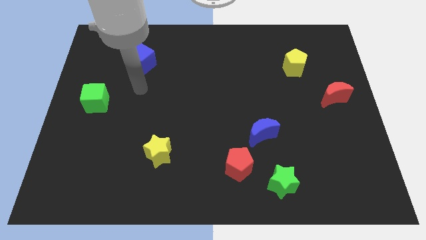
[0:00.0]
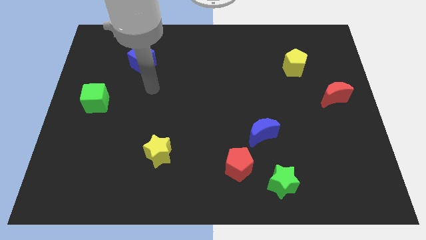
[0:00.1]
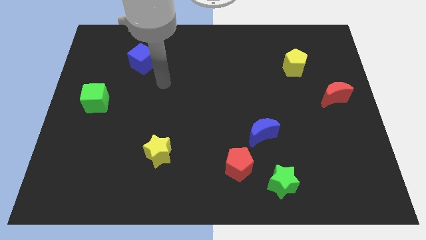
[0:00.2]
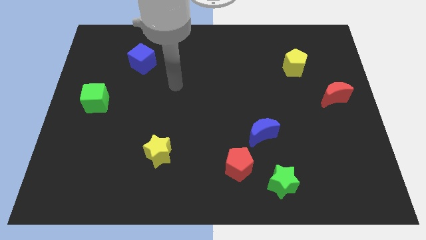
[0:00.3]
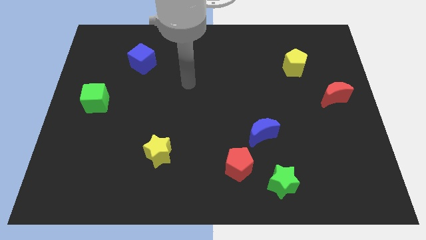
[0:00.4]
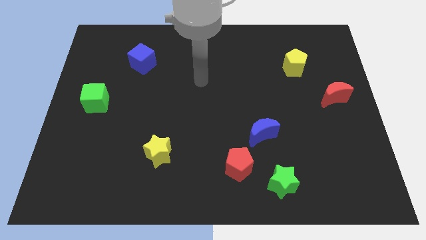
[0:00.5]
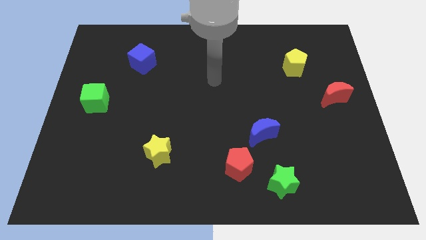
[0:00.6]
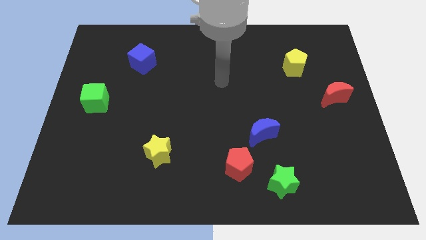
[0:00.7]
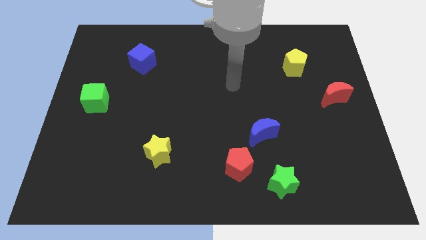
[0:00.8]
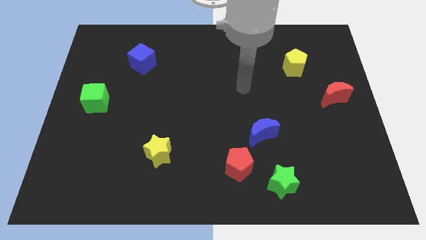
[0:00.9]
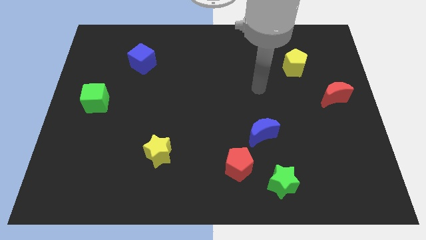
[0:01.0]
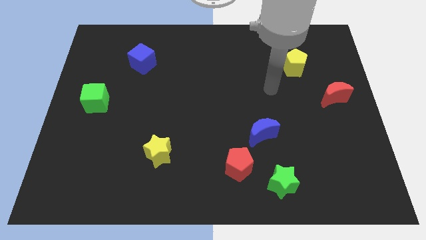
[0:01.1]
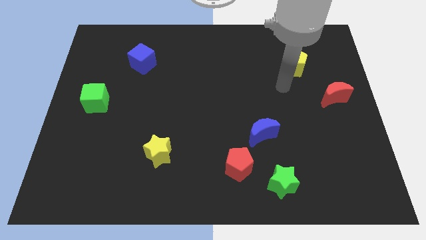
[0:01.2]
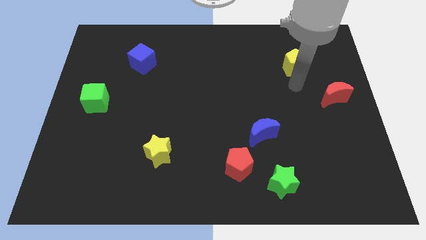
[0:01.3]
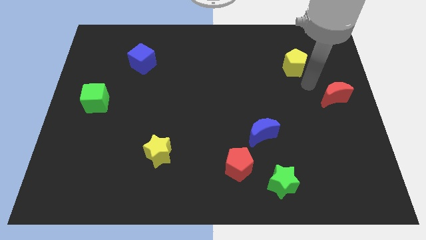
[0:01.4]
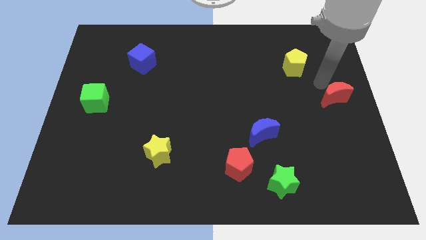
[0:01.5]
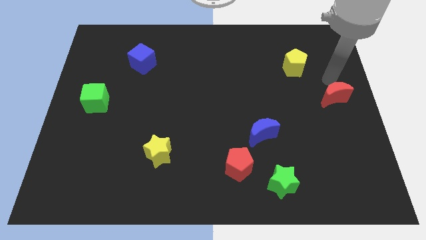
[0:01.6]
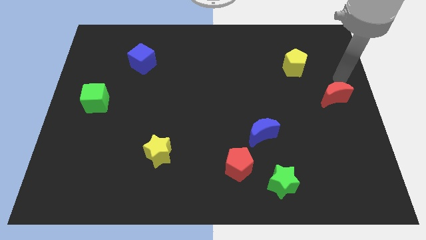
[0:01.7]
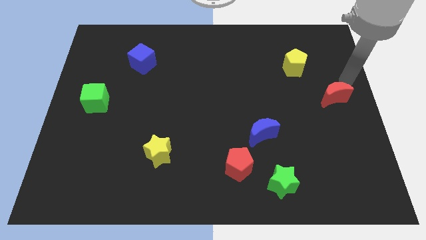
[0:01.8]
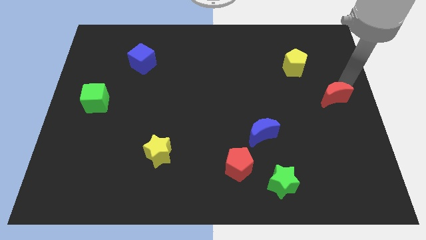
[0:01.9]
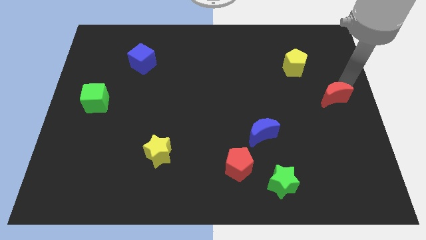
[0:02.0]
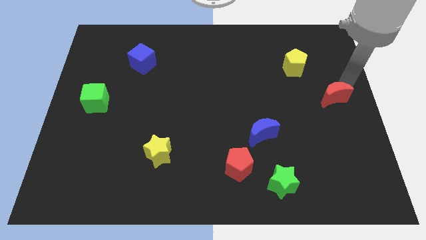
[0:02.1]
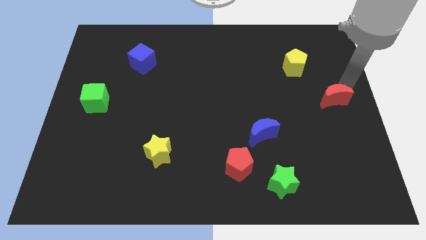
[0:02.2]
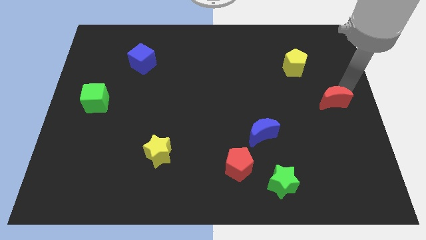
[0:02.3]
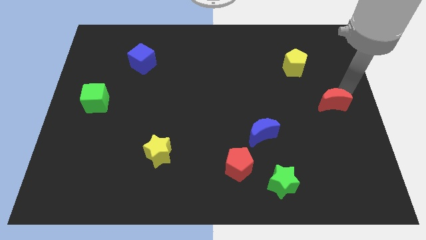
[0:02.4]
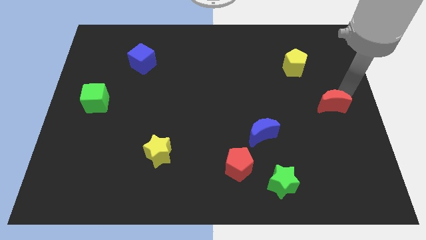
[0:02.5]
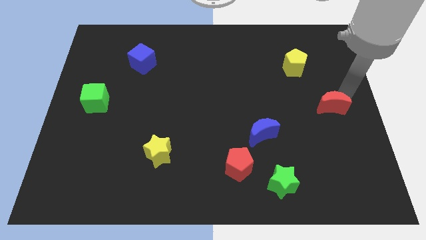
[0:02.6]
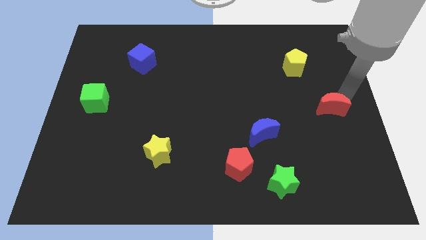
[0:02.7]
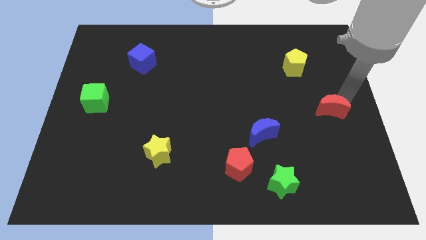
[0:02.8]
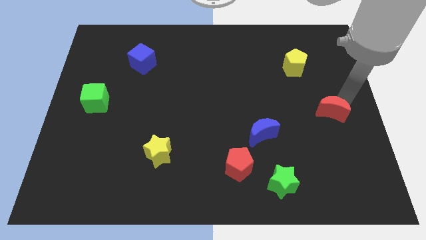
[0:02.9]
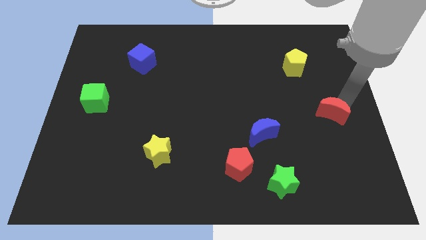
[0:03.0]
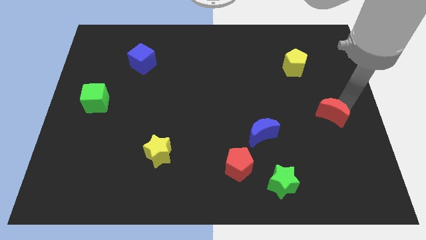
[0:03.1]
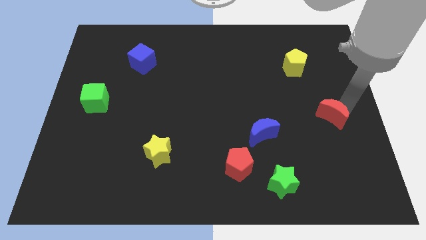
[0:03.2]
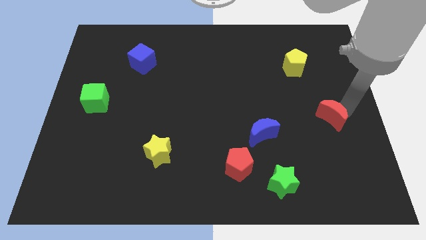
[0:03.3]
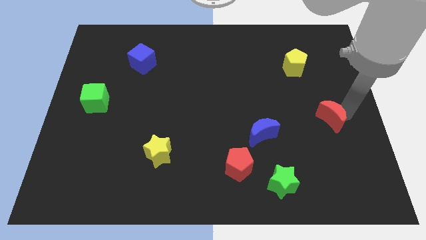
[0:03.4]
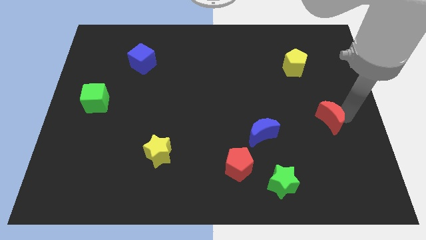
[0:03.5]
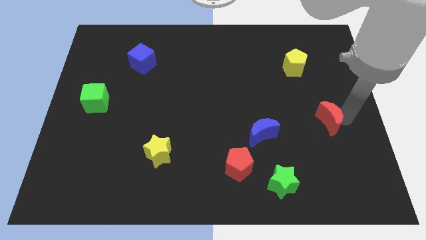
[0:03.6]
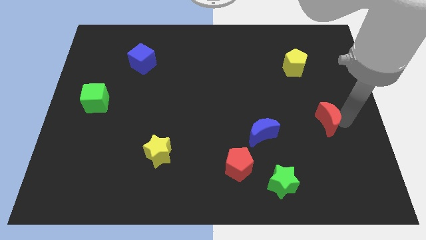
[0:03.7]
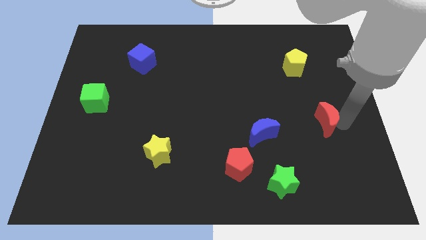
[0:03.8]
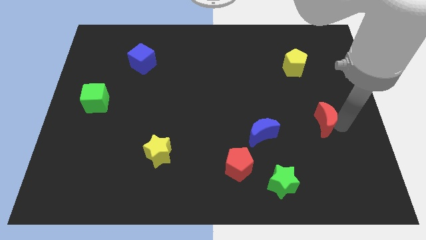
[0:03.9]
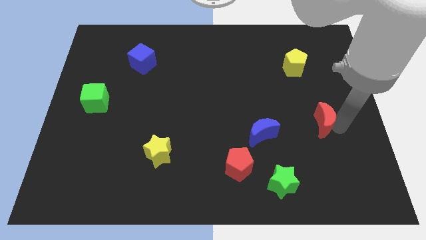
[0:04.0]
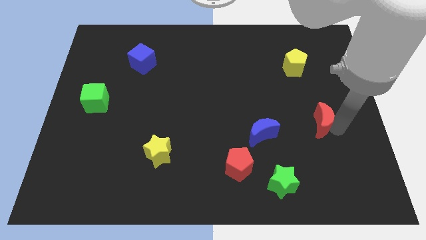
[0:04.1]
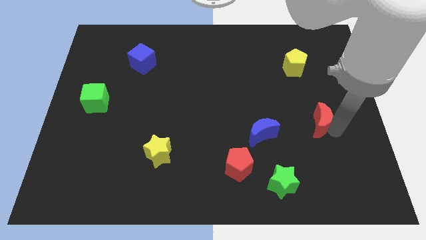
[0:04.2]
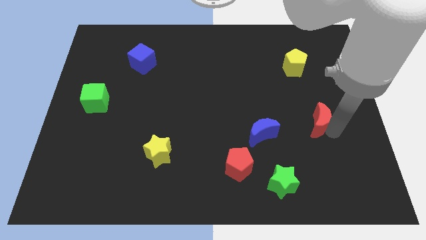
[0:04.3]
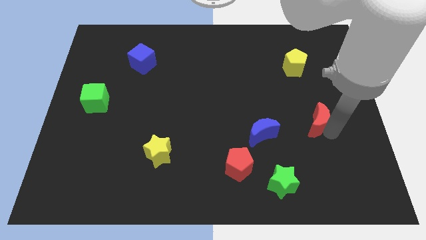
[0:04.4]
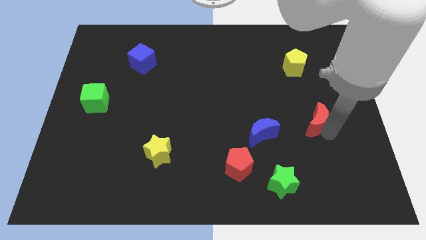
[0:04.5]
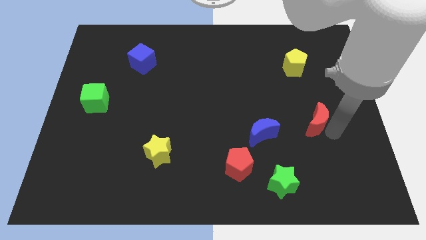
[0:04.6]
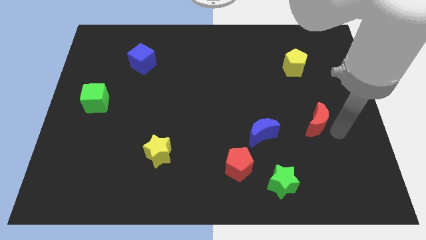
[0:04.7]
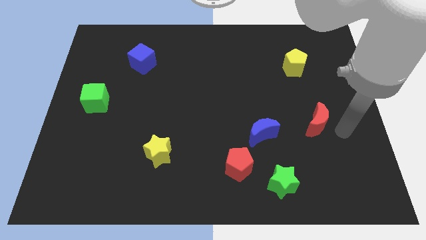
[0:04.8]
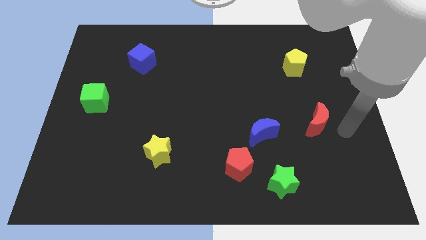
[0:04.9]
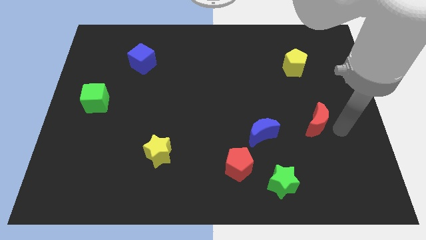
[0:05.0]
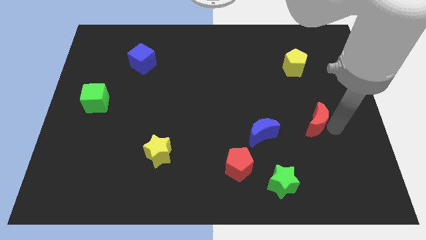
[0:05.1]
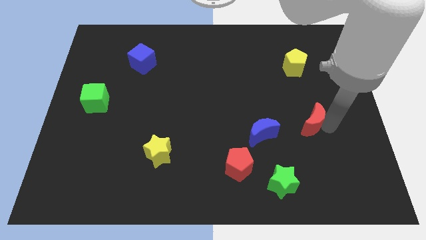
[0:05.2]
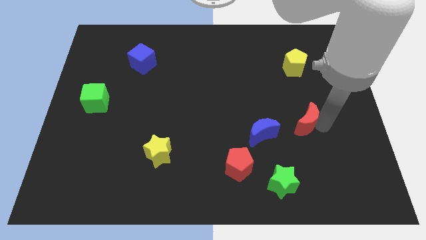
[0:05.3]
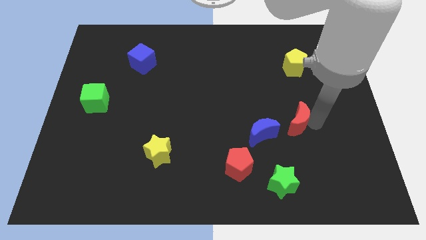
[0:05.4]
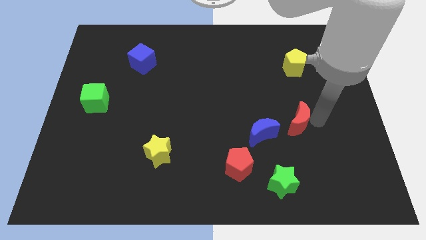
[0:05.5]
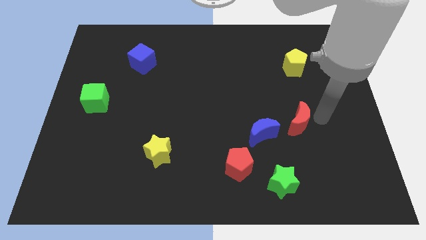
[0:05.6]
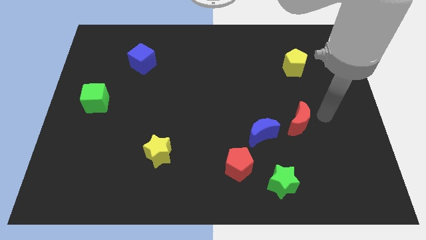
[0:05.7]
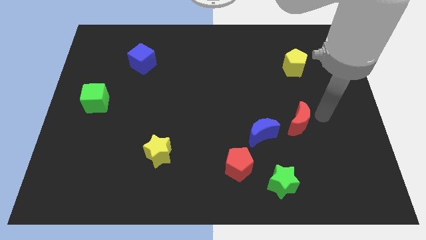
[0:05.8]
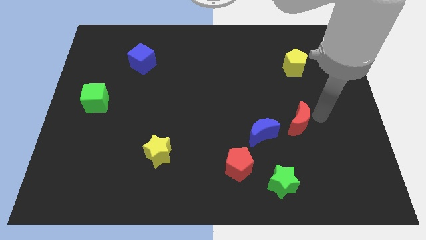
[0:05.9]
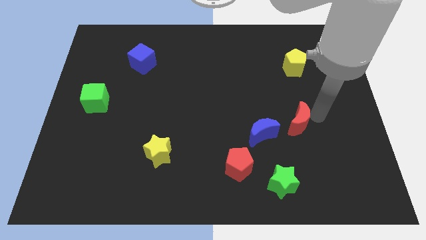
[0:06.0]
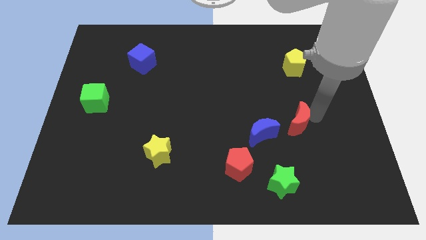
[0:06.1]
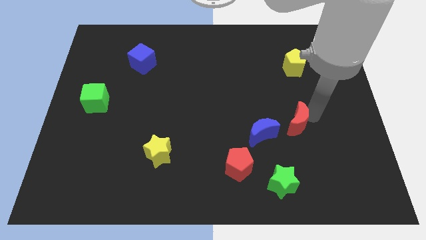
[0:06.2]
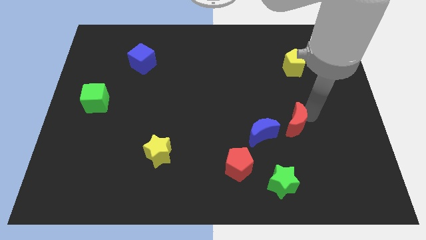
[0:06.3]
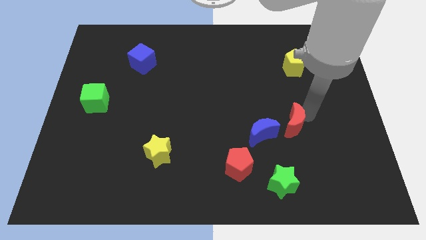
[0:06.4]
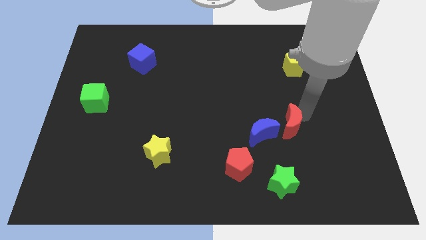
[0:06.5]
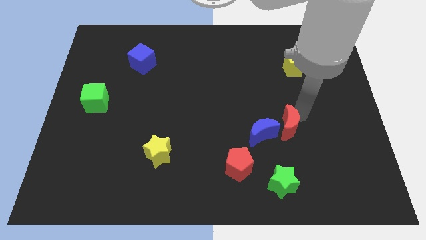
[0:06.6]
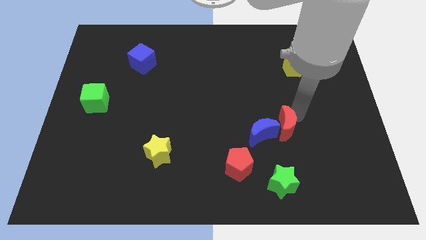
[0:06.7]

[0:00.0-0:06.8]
put the red moon close to the blue moon

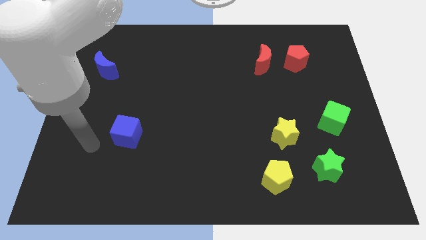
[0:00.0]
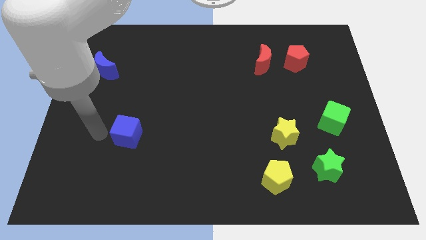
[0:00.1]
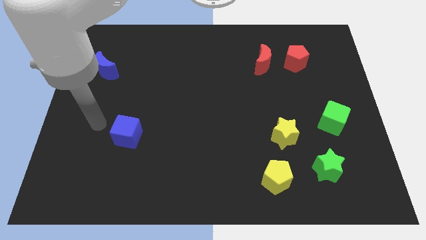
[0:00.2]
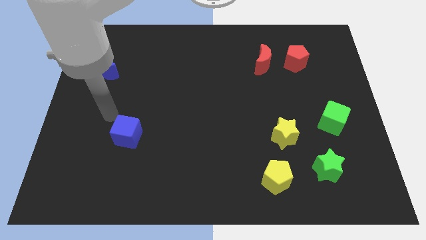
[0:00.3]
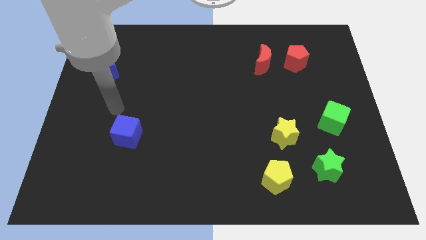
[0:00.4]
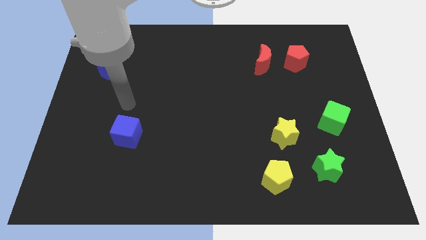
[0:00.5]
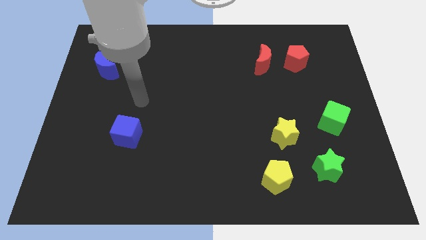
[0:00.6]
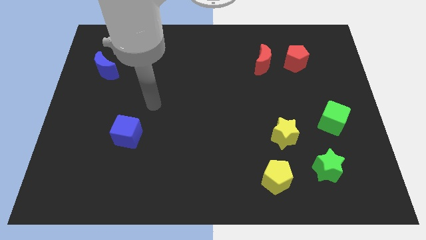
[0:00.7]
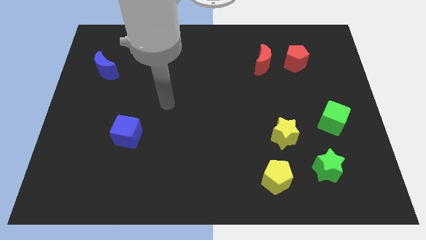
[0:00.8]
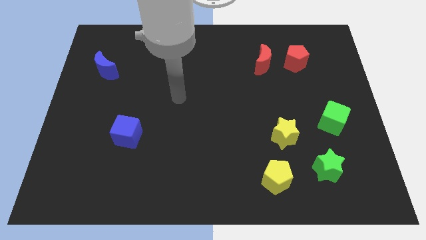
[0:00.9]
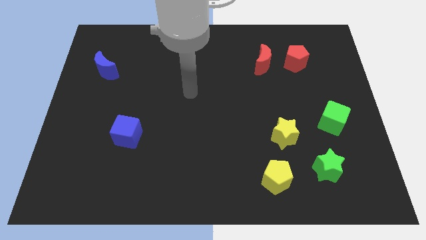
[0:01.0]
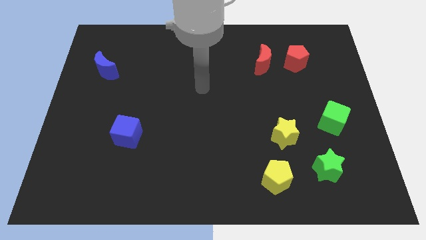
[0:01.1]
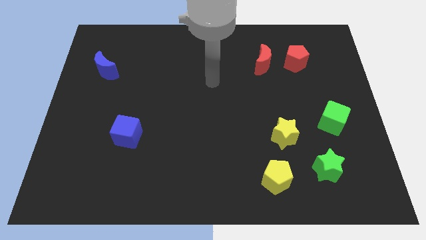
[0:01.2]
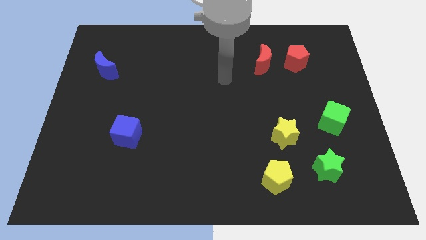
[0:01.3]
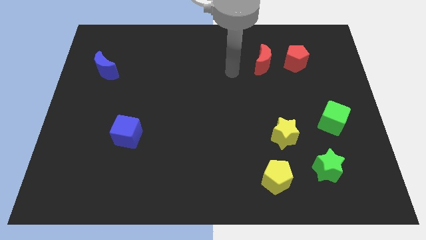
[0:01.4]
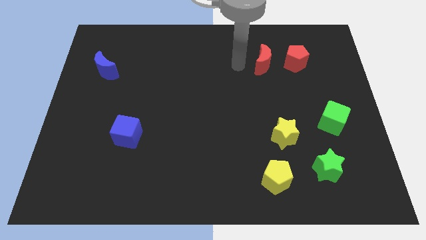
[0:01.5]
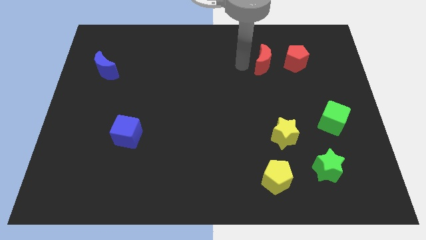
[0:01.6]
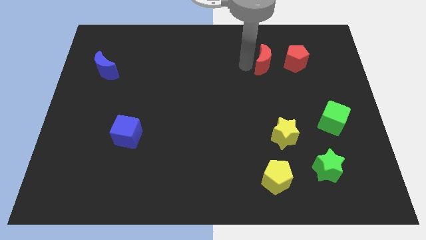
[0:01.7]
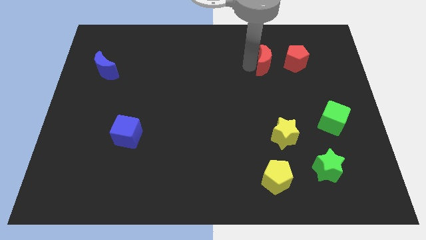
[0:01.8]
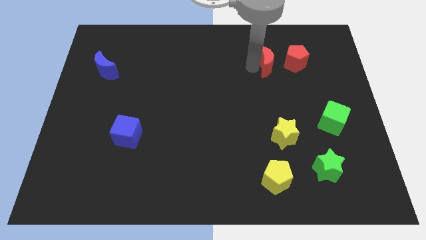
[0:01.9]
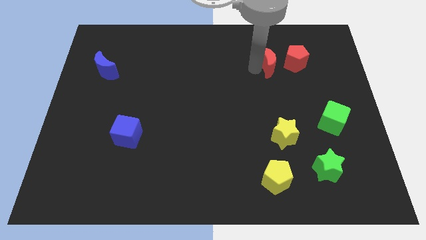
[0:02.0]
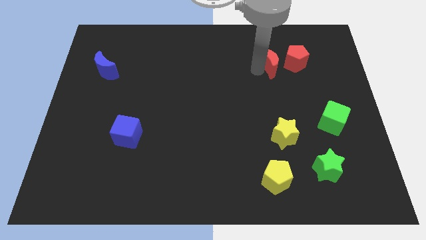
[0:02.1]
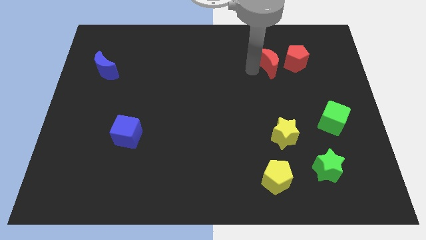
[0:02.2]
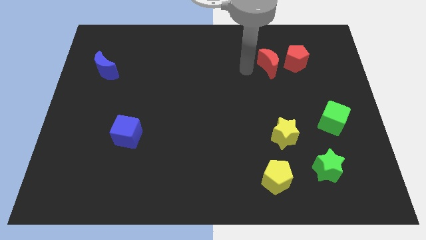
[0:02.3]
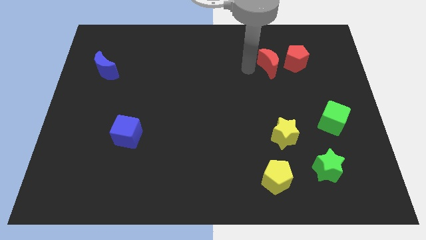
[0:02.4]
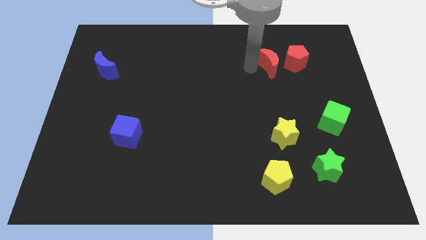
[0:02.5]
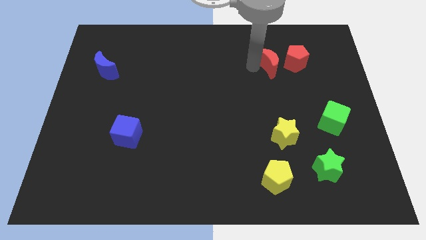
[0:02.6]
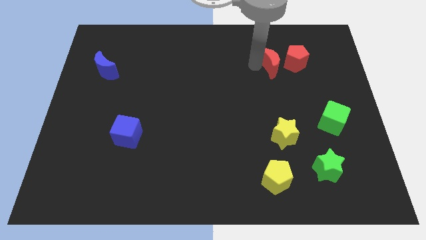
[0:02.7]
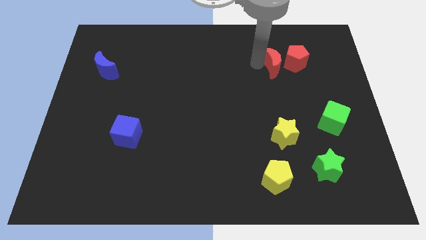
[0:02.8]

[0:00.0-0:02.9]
move the red moon next to the red pentagon
